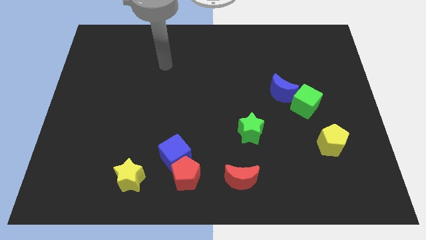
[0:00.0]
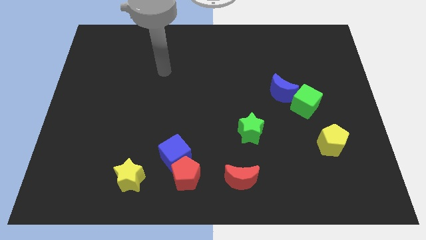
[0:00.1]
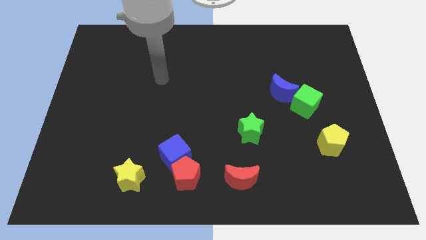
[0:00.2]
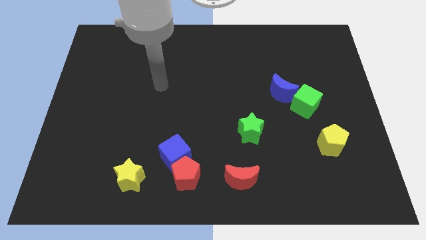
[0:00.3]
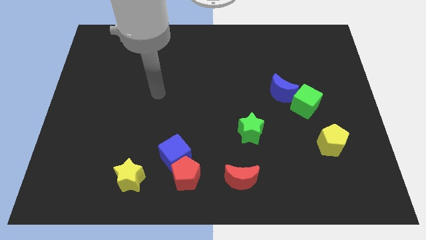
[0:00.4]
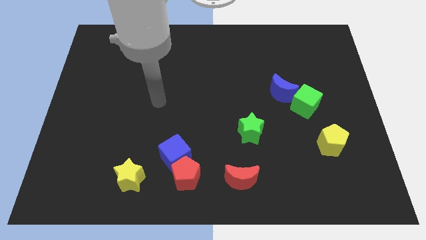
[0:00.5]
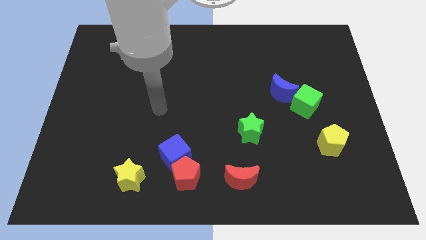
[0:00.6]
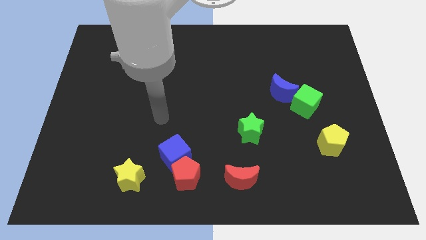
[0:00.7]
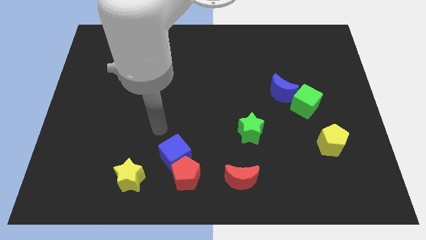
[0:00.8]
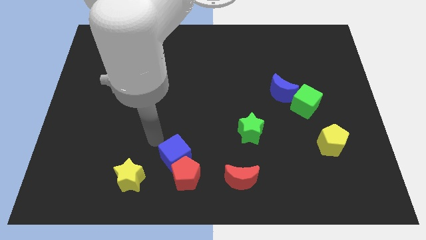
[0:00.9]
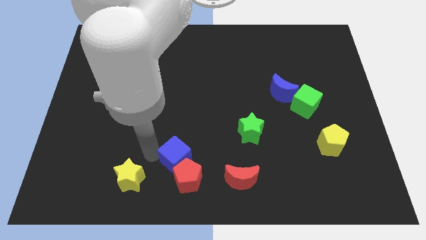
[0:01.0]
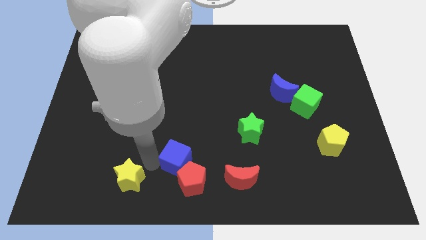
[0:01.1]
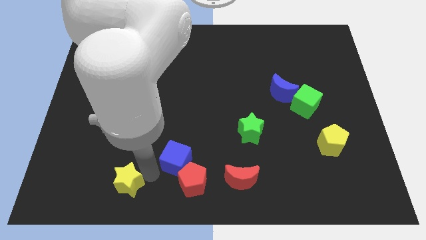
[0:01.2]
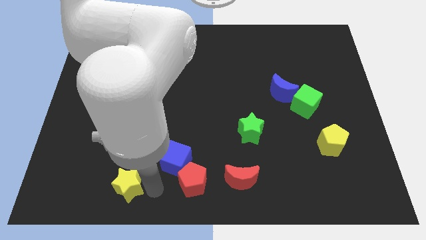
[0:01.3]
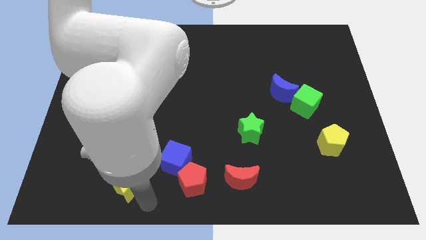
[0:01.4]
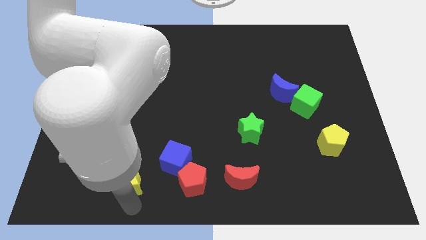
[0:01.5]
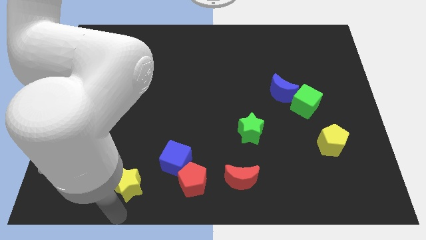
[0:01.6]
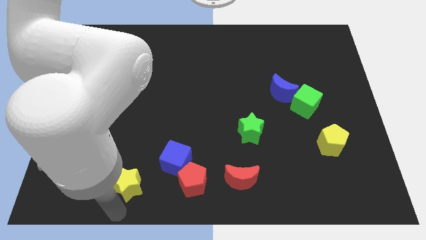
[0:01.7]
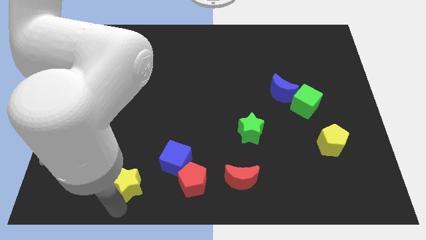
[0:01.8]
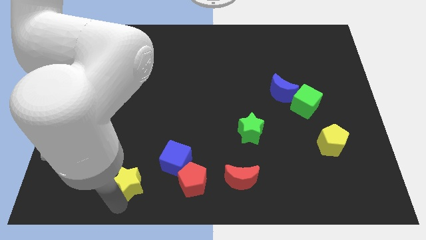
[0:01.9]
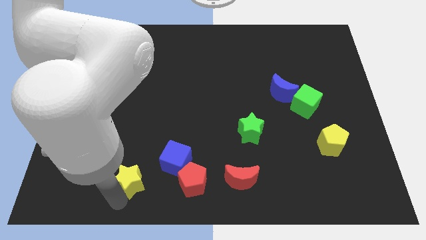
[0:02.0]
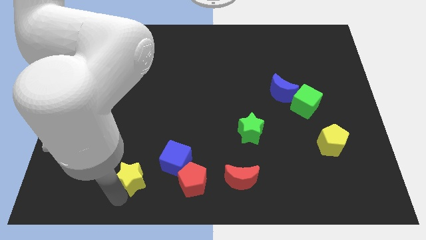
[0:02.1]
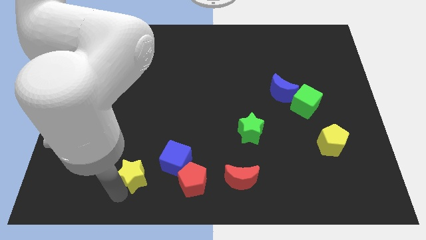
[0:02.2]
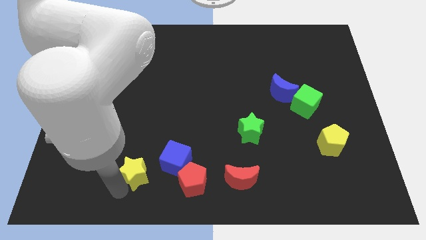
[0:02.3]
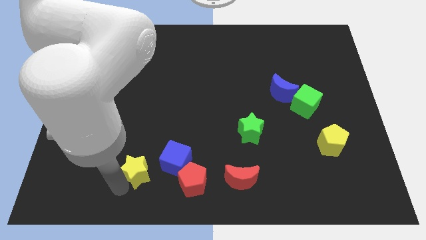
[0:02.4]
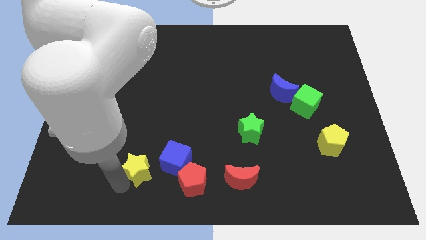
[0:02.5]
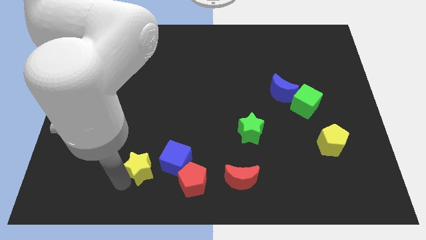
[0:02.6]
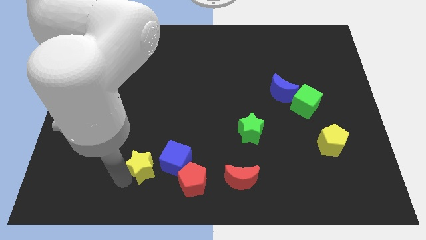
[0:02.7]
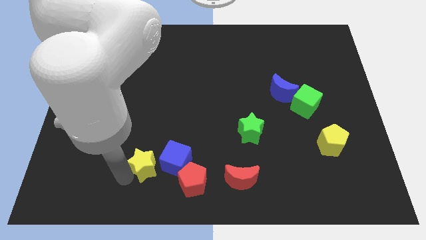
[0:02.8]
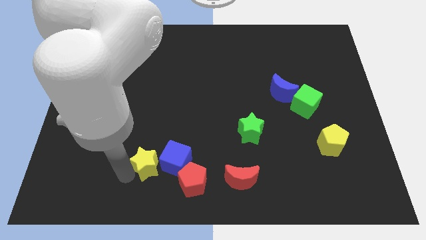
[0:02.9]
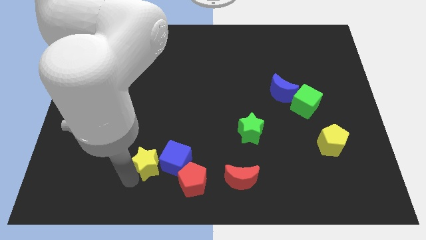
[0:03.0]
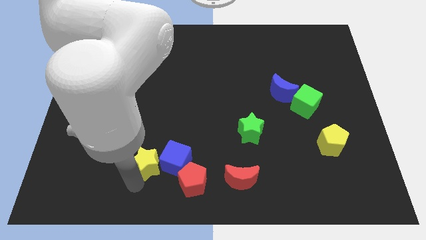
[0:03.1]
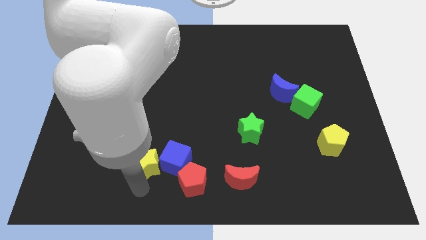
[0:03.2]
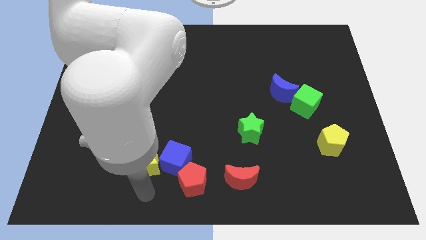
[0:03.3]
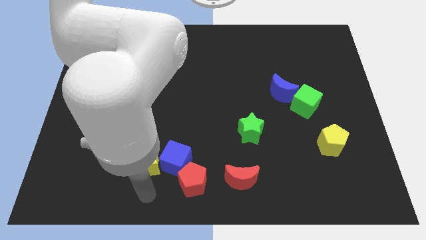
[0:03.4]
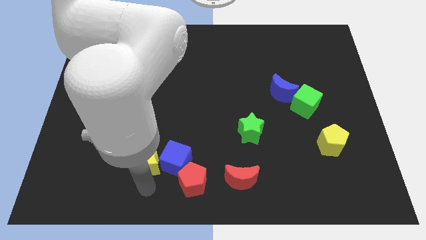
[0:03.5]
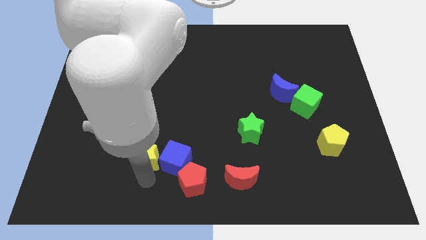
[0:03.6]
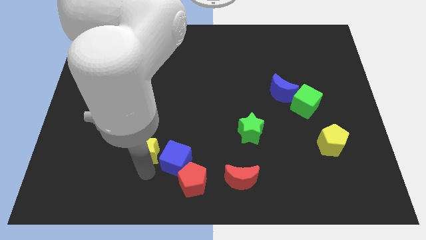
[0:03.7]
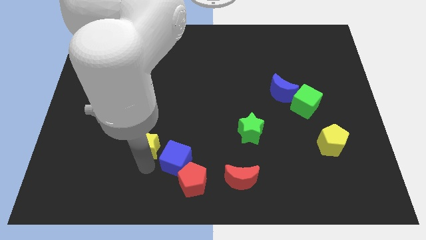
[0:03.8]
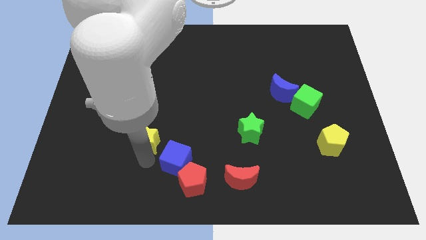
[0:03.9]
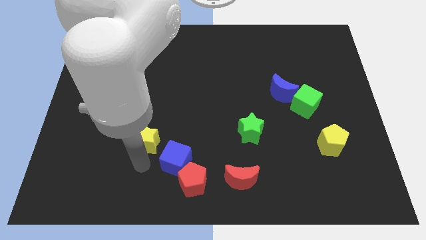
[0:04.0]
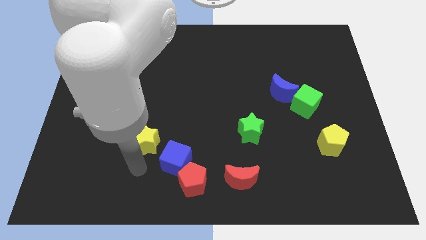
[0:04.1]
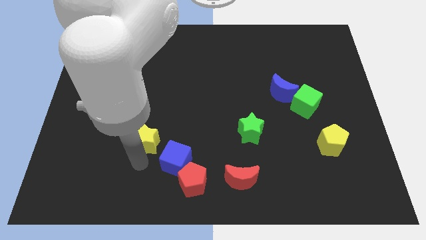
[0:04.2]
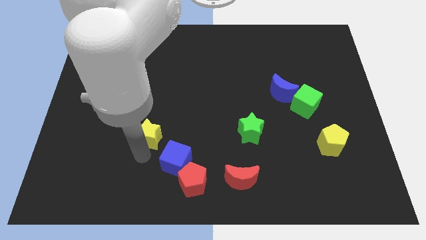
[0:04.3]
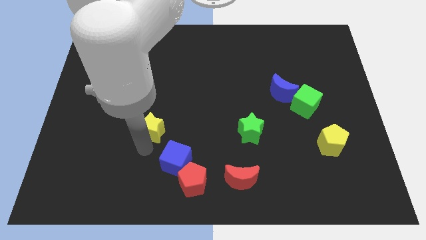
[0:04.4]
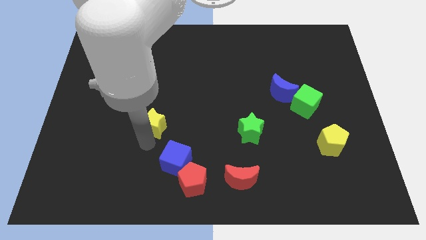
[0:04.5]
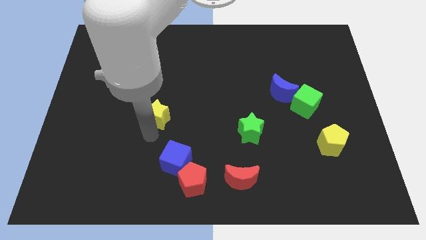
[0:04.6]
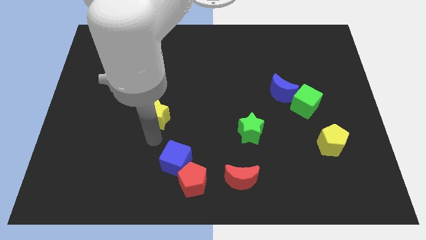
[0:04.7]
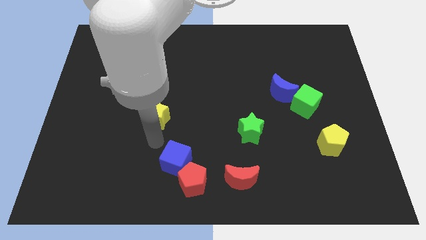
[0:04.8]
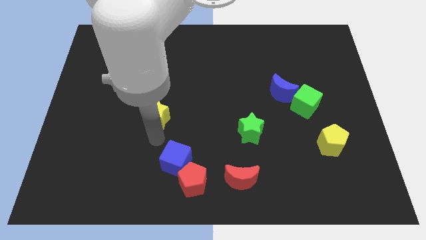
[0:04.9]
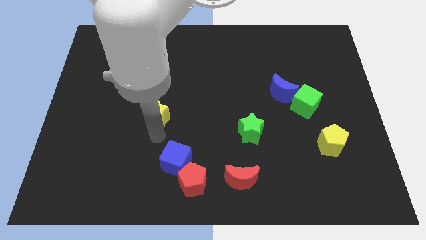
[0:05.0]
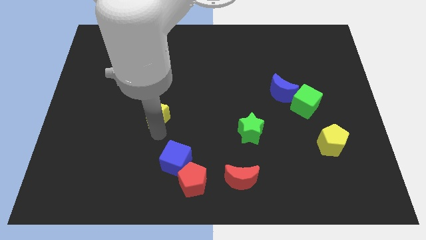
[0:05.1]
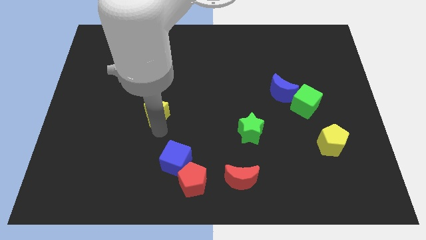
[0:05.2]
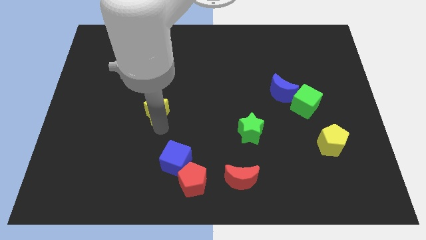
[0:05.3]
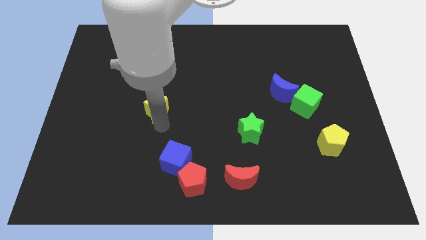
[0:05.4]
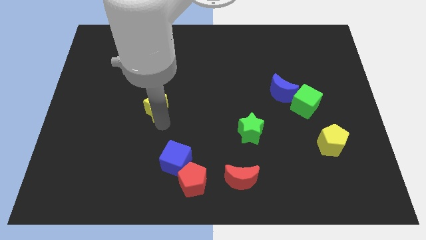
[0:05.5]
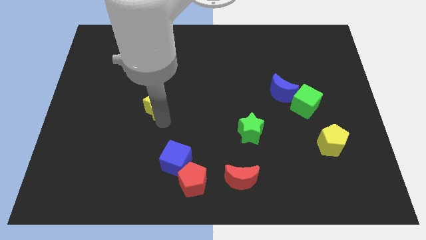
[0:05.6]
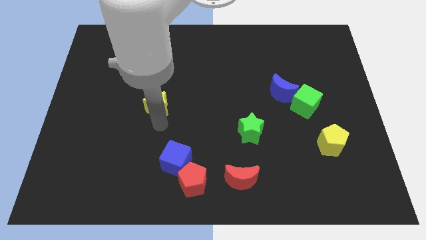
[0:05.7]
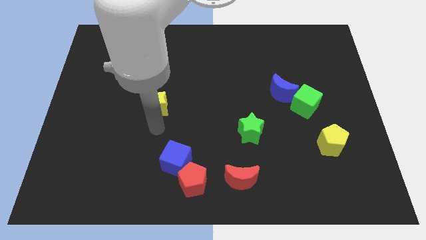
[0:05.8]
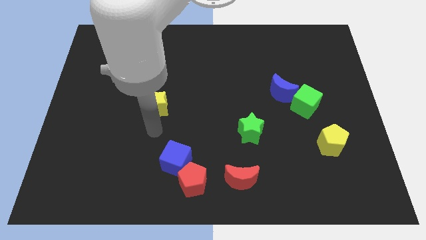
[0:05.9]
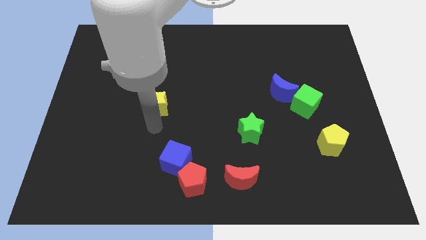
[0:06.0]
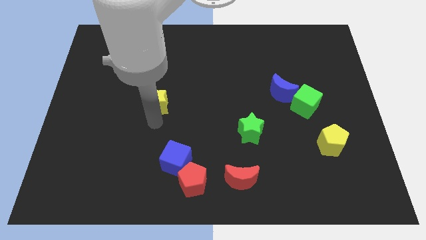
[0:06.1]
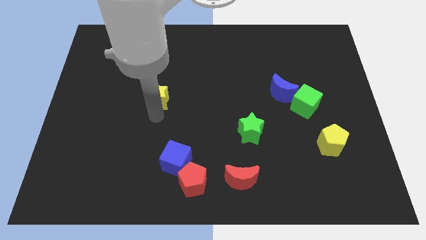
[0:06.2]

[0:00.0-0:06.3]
move the yellow star upwards

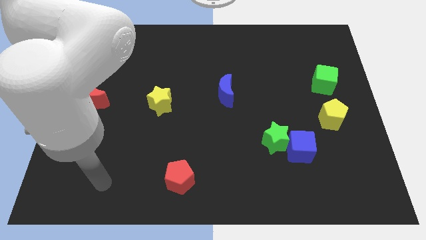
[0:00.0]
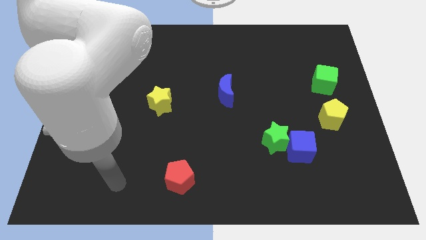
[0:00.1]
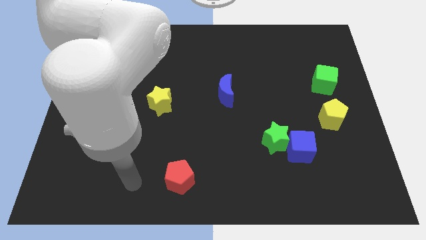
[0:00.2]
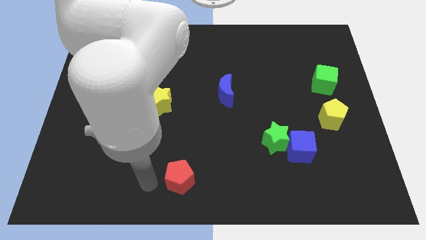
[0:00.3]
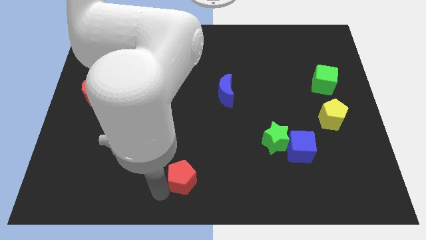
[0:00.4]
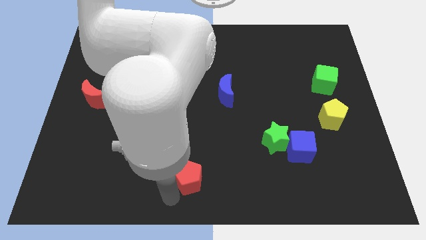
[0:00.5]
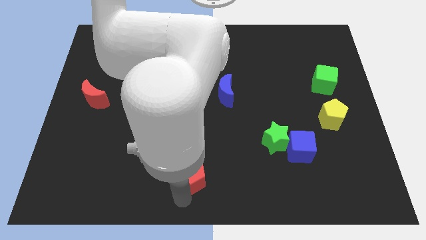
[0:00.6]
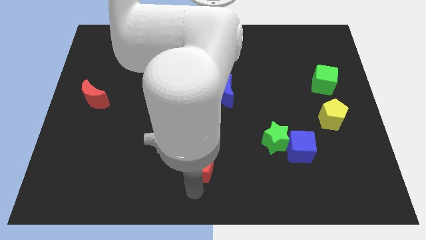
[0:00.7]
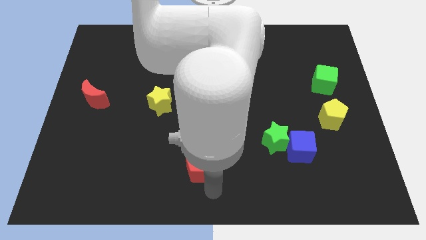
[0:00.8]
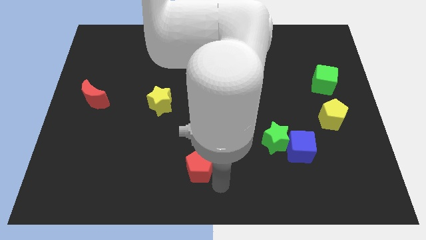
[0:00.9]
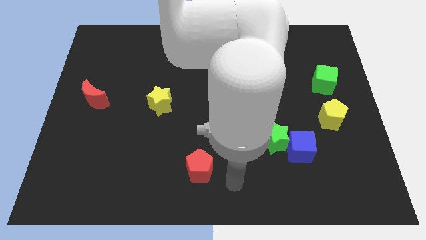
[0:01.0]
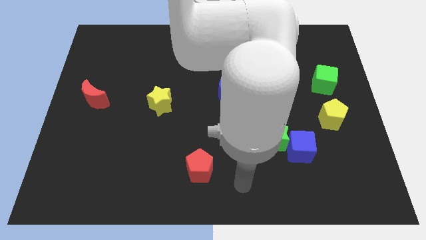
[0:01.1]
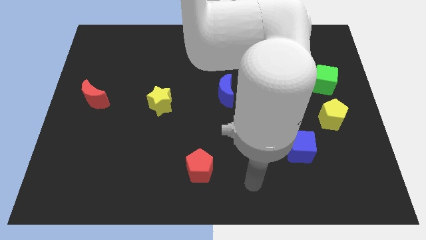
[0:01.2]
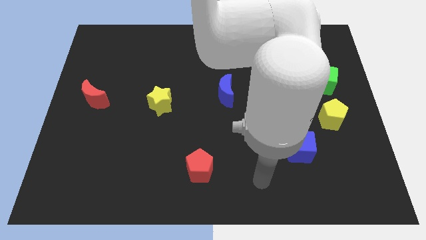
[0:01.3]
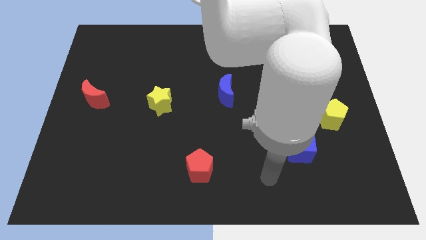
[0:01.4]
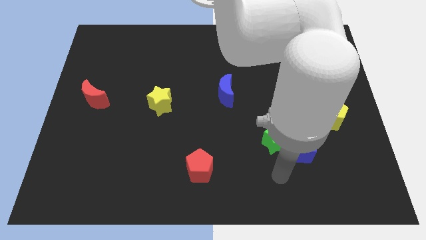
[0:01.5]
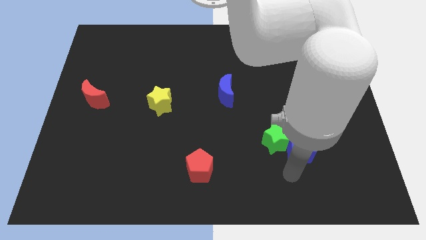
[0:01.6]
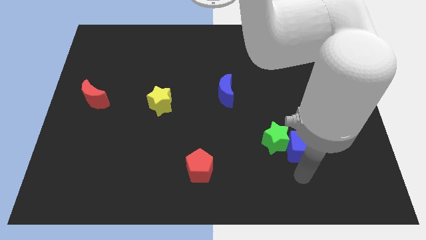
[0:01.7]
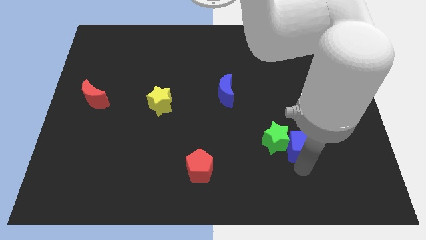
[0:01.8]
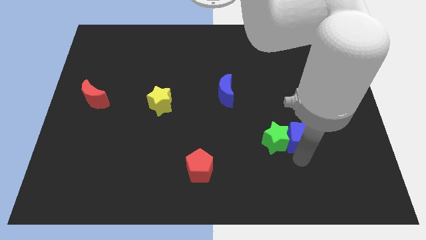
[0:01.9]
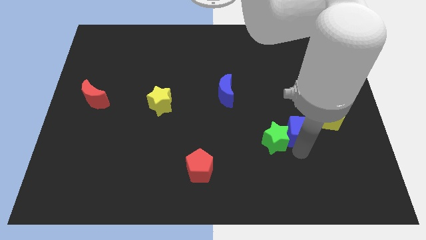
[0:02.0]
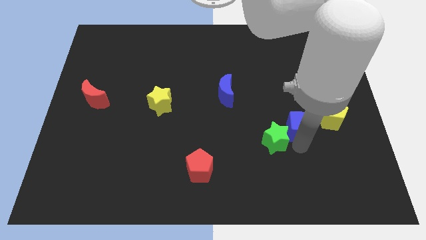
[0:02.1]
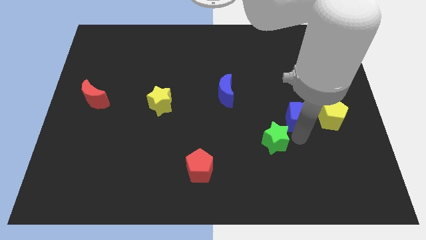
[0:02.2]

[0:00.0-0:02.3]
move the blue cube upwards a little
